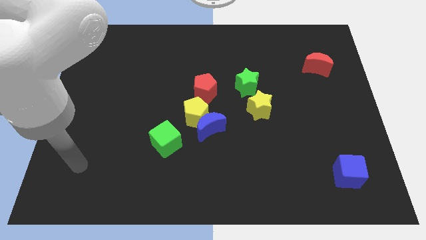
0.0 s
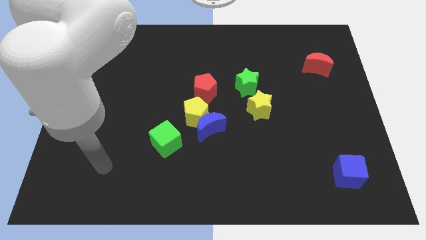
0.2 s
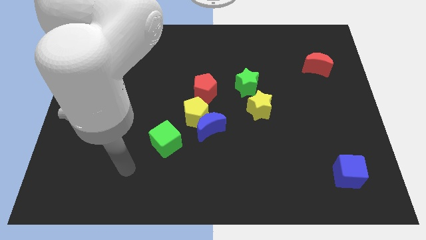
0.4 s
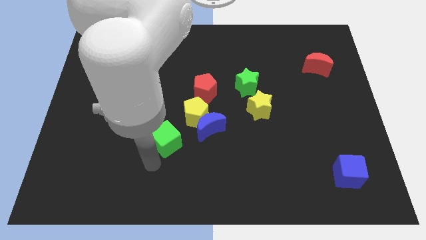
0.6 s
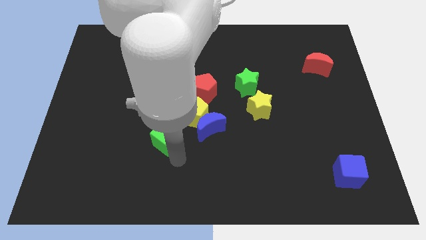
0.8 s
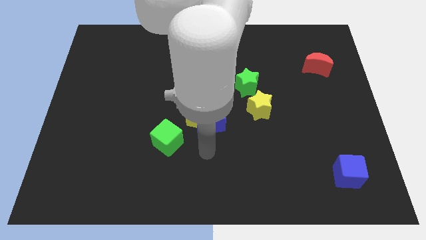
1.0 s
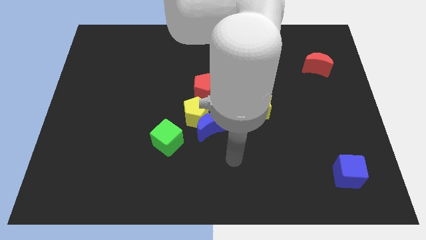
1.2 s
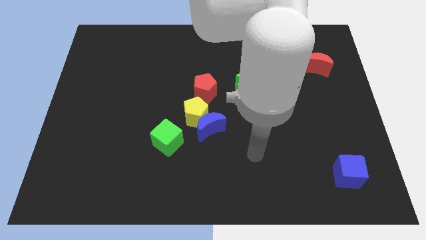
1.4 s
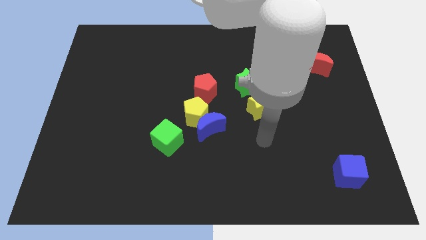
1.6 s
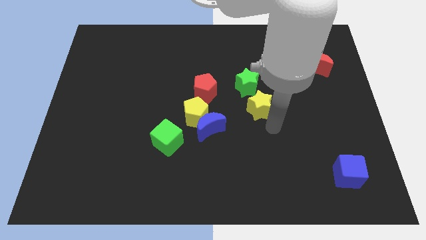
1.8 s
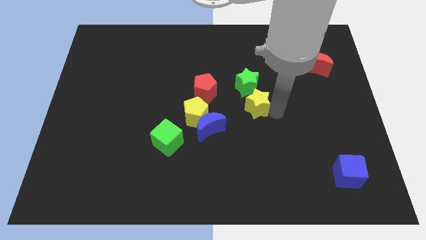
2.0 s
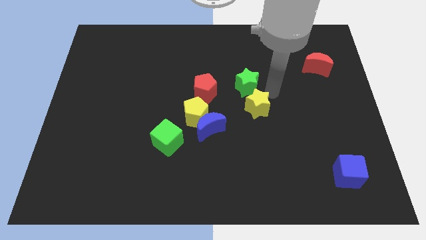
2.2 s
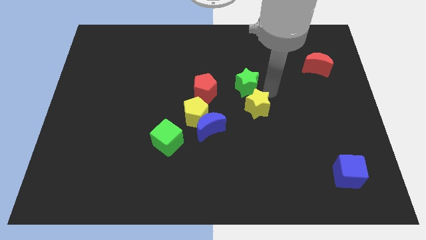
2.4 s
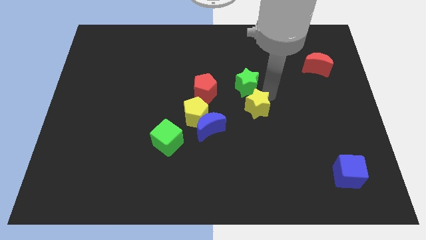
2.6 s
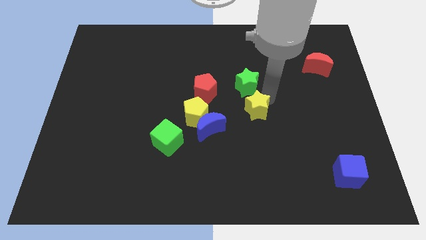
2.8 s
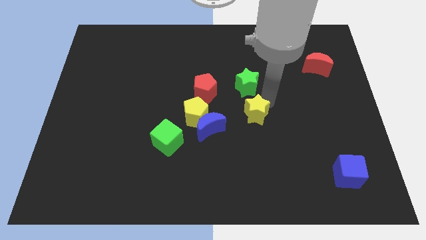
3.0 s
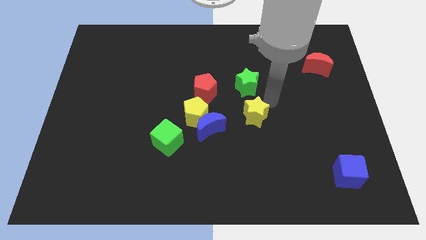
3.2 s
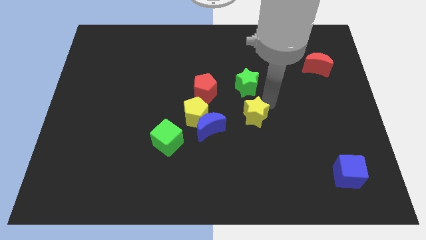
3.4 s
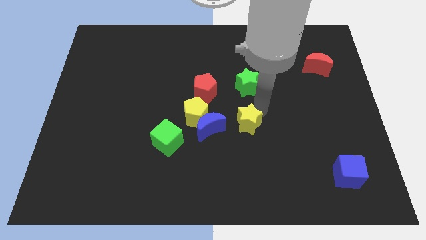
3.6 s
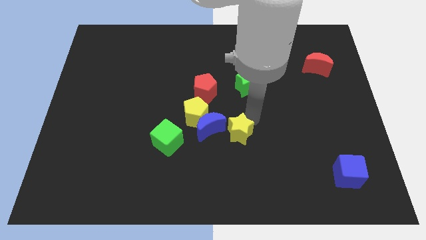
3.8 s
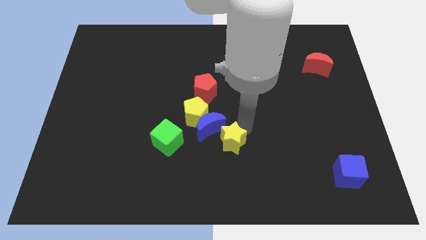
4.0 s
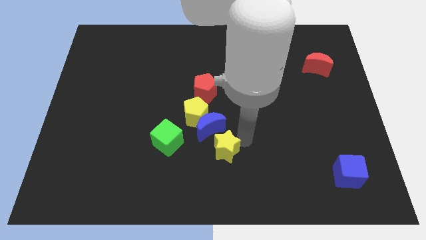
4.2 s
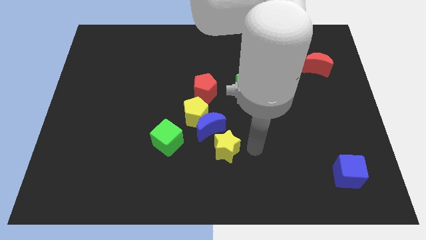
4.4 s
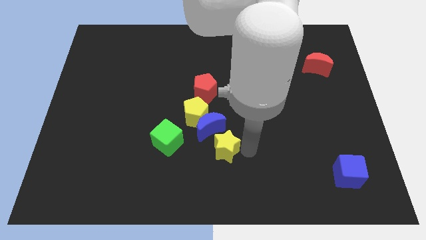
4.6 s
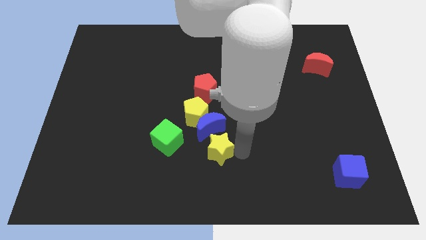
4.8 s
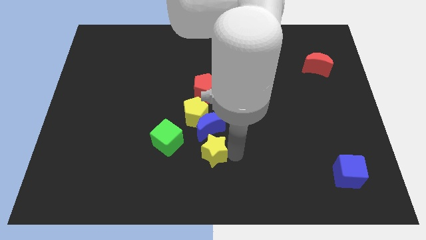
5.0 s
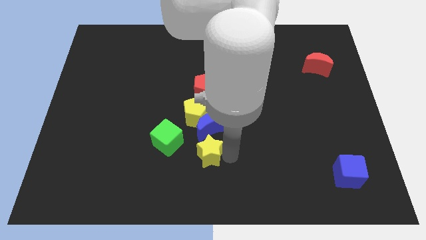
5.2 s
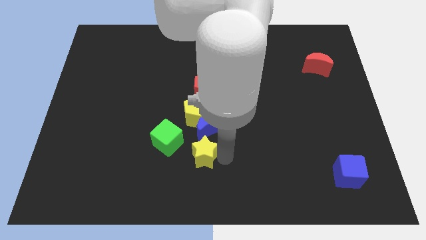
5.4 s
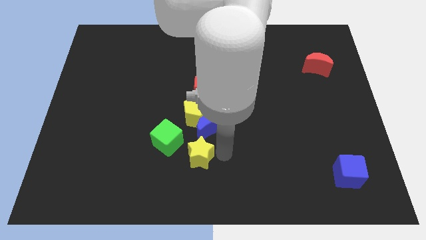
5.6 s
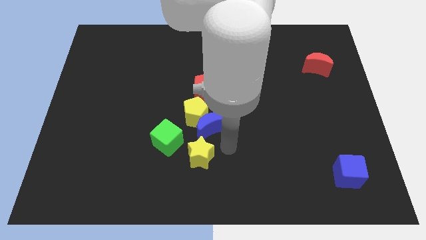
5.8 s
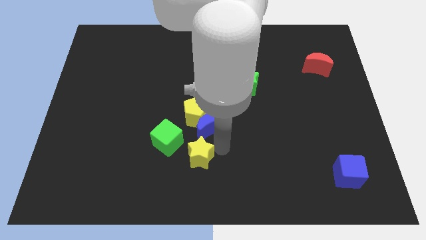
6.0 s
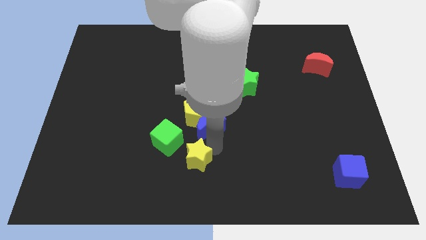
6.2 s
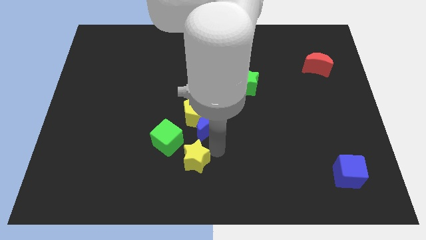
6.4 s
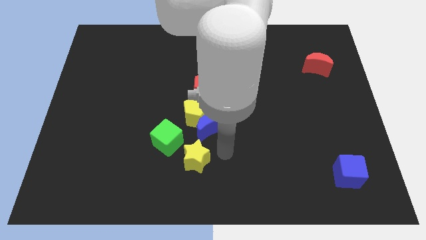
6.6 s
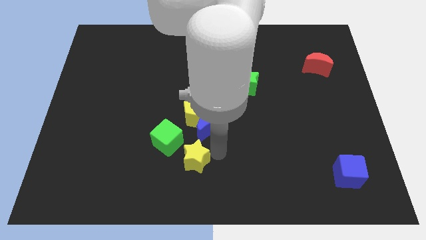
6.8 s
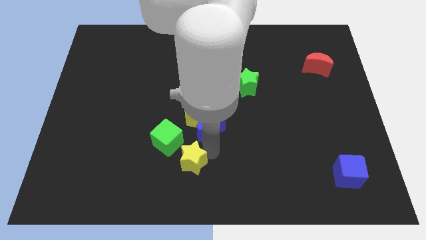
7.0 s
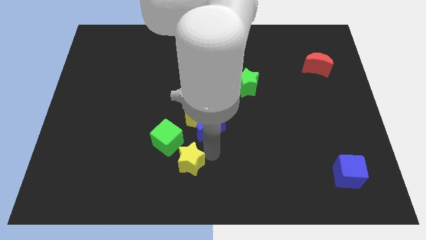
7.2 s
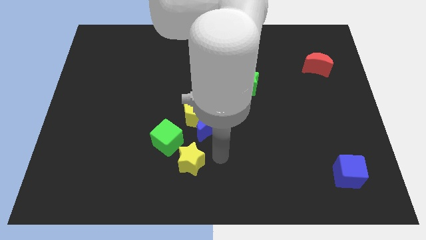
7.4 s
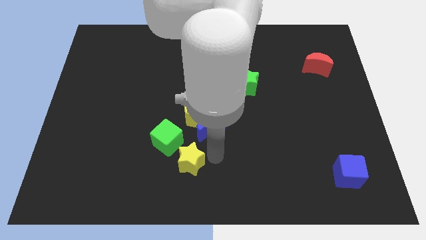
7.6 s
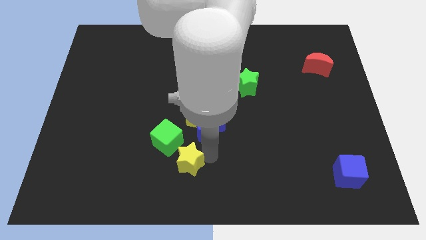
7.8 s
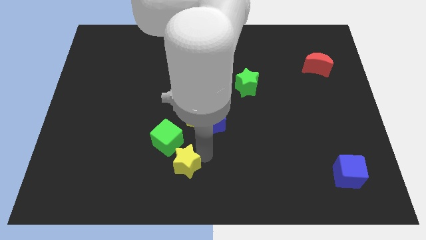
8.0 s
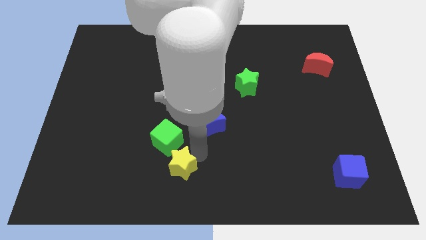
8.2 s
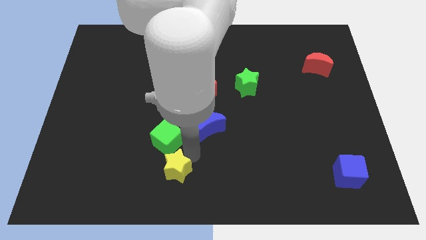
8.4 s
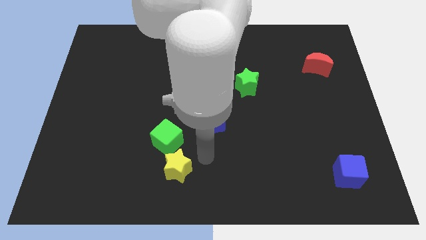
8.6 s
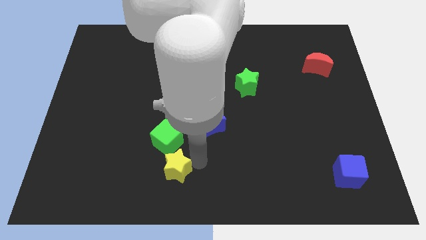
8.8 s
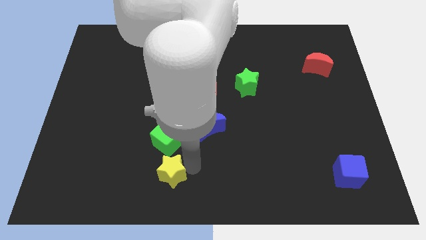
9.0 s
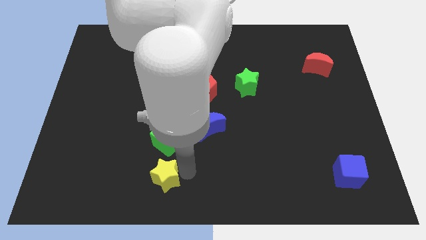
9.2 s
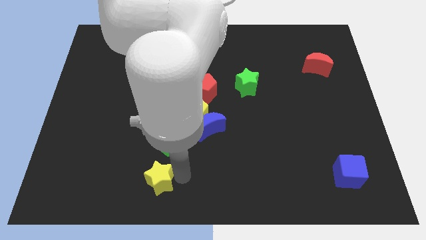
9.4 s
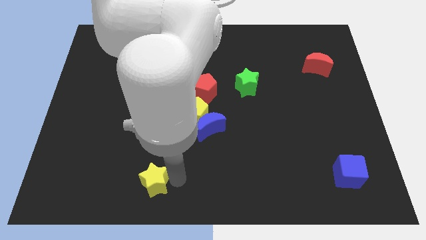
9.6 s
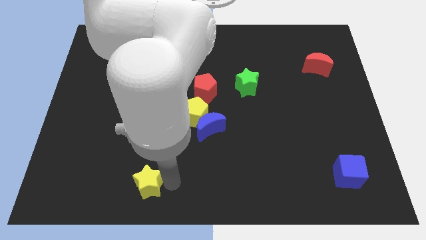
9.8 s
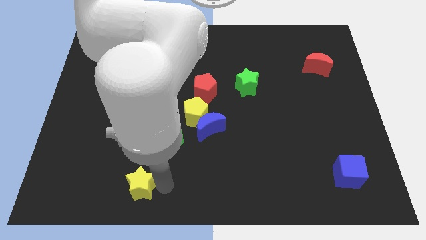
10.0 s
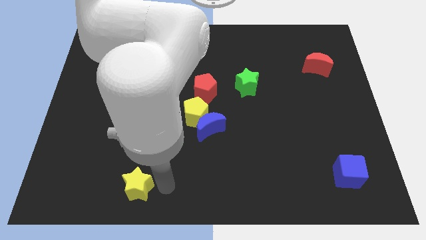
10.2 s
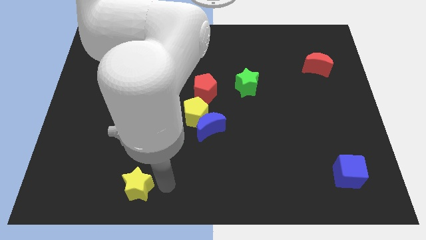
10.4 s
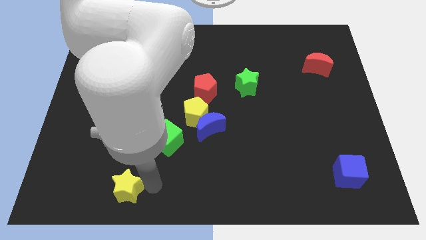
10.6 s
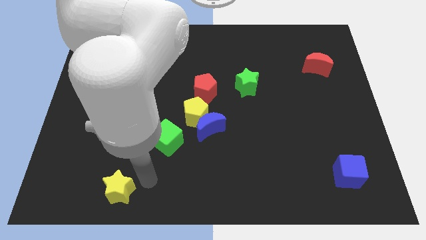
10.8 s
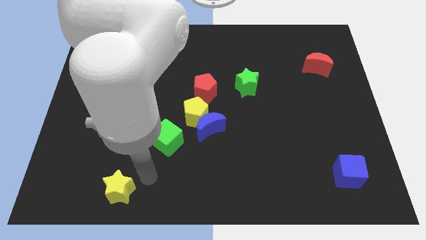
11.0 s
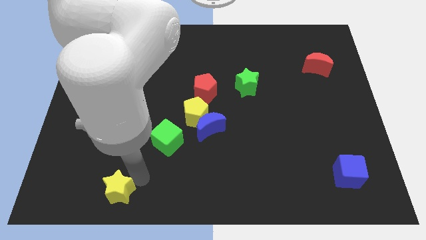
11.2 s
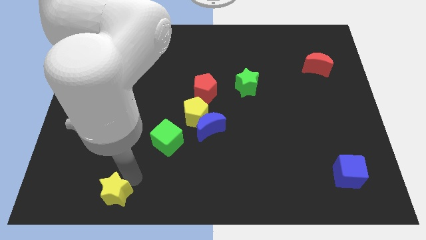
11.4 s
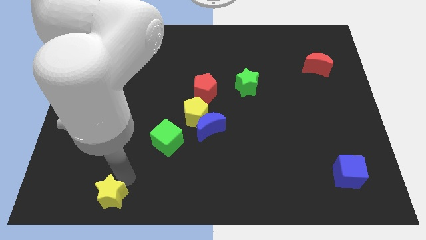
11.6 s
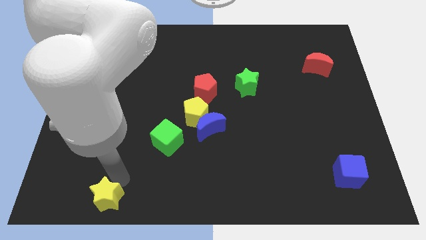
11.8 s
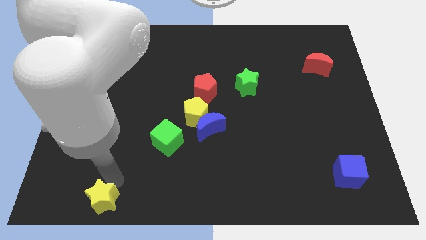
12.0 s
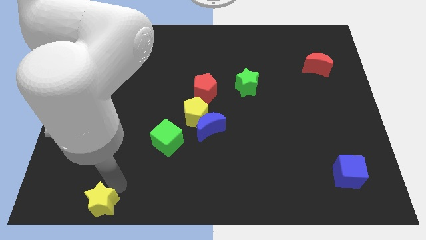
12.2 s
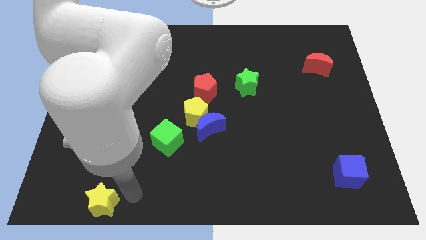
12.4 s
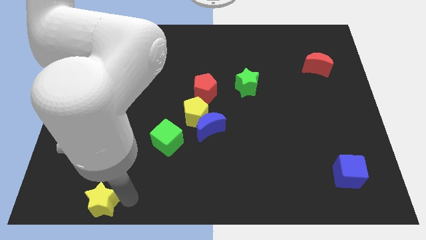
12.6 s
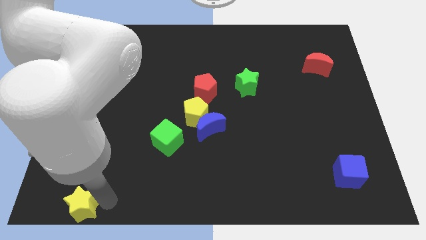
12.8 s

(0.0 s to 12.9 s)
move the yellow star to the bottom left corner
